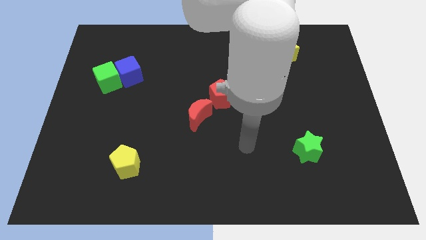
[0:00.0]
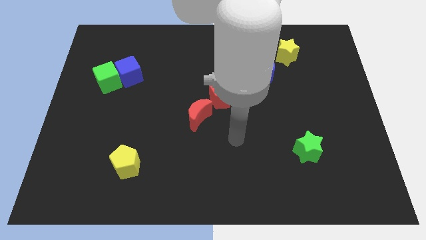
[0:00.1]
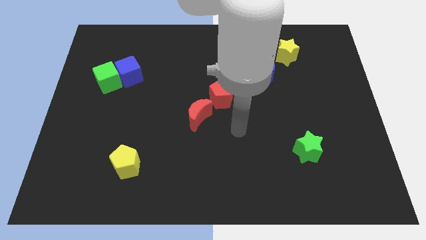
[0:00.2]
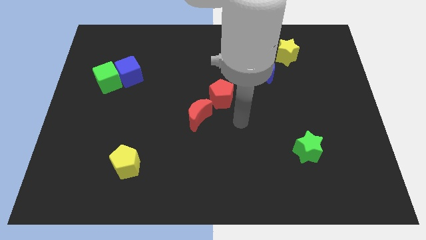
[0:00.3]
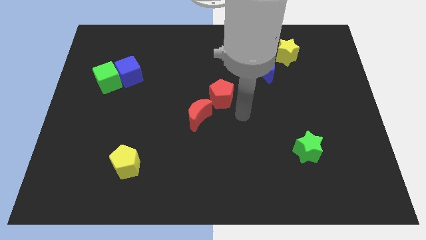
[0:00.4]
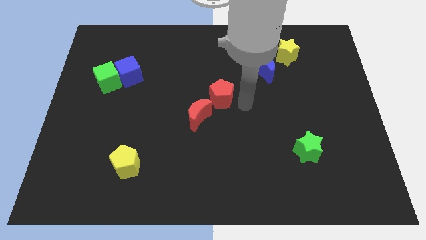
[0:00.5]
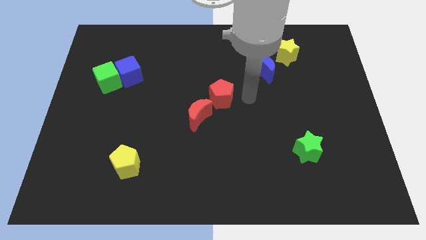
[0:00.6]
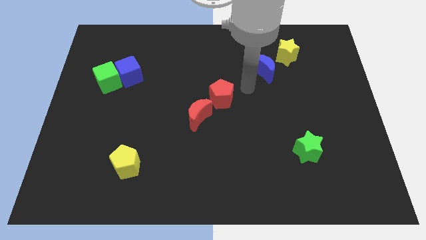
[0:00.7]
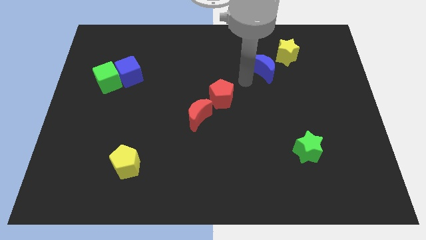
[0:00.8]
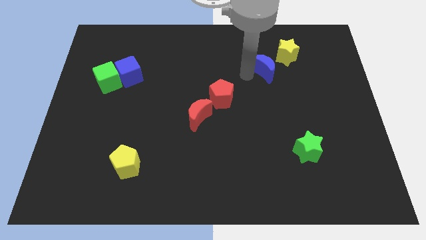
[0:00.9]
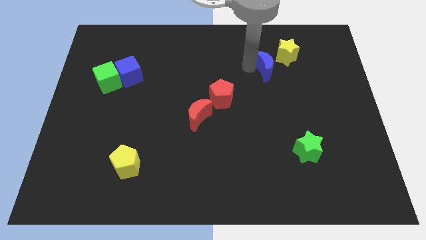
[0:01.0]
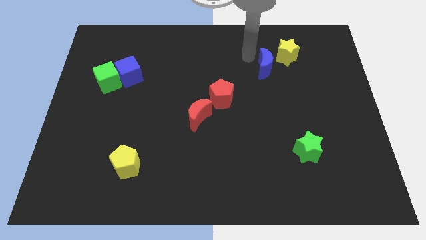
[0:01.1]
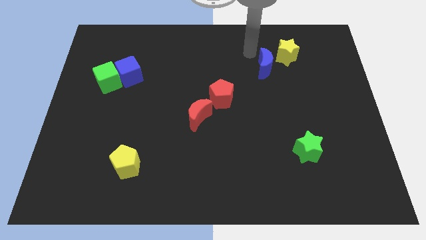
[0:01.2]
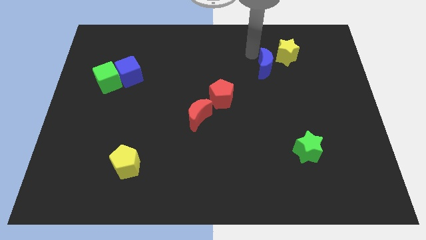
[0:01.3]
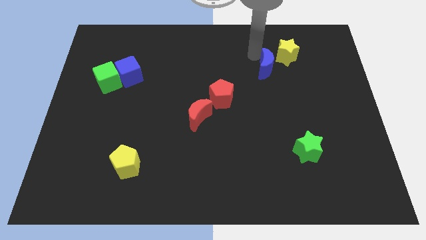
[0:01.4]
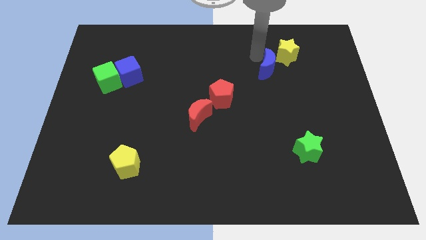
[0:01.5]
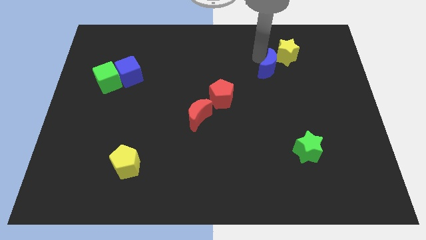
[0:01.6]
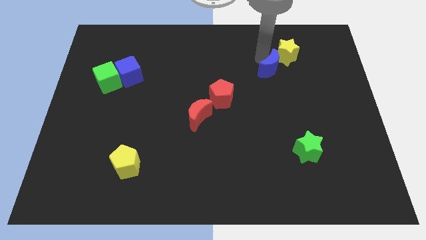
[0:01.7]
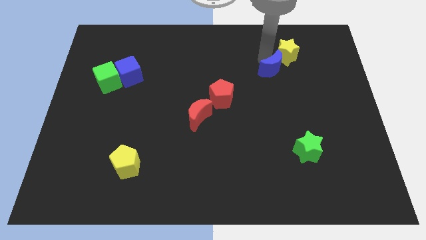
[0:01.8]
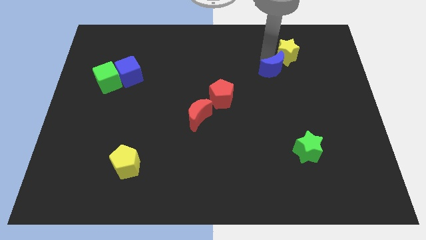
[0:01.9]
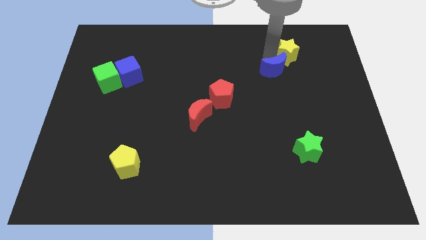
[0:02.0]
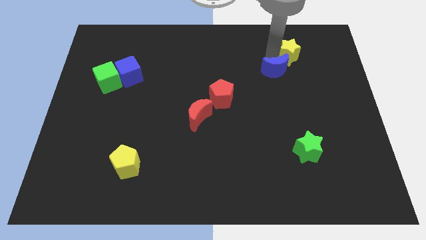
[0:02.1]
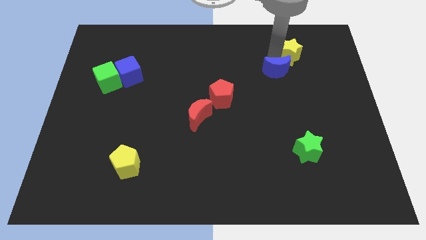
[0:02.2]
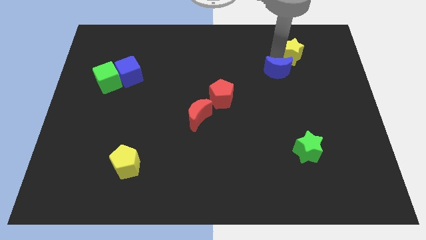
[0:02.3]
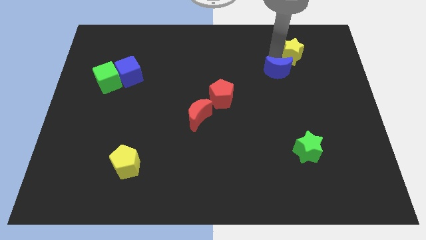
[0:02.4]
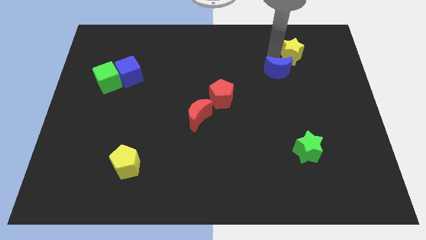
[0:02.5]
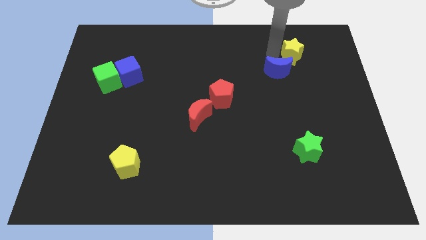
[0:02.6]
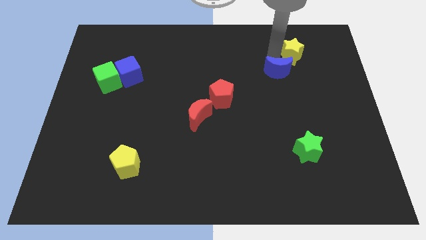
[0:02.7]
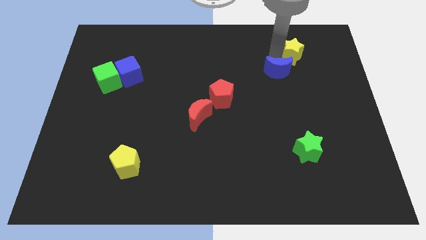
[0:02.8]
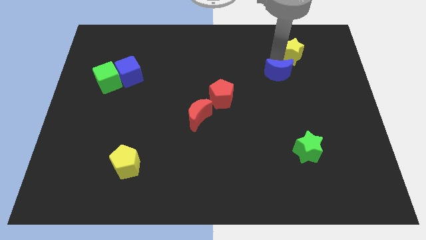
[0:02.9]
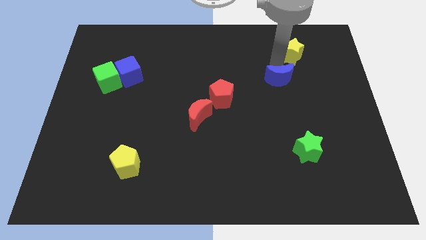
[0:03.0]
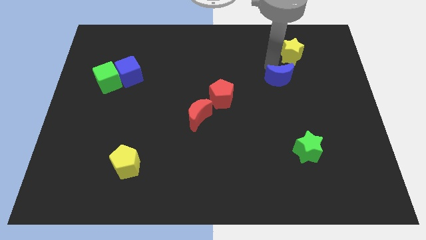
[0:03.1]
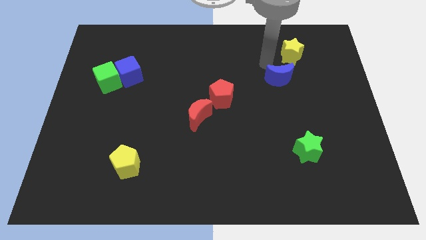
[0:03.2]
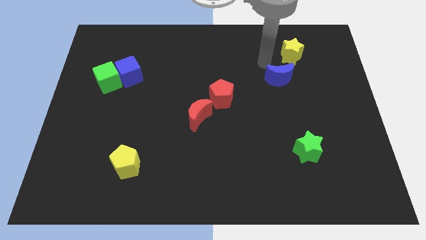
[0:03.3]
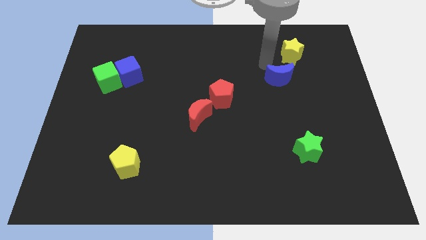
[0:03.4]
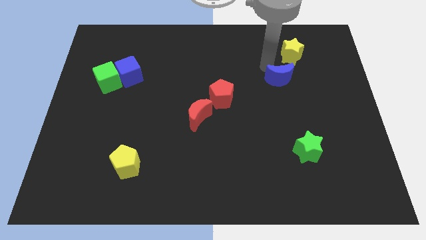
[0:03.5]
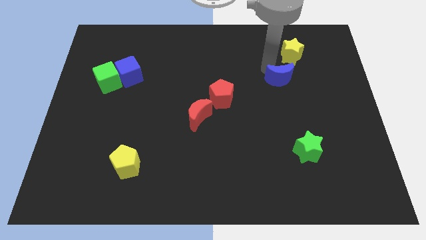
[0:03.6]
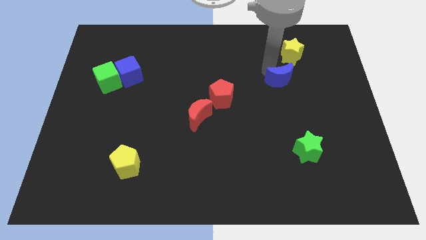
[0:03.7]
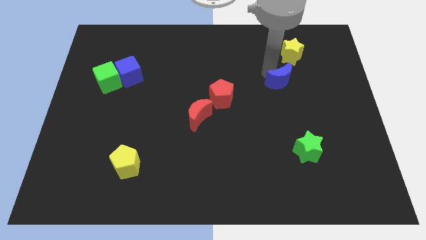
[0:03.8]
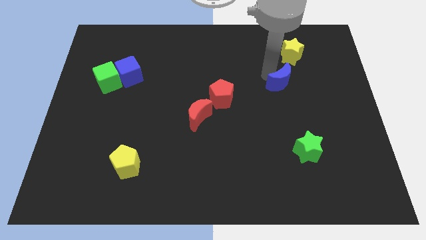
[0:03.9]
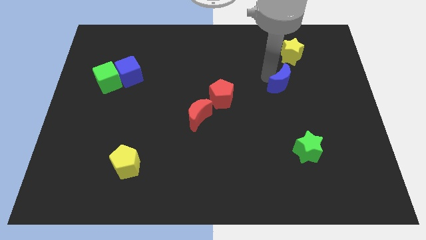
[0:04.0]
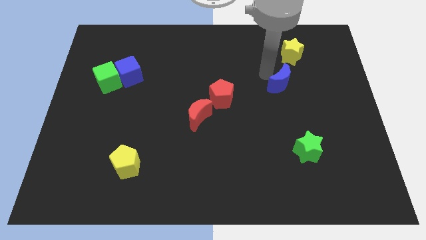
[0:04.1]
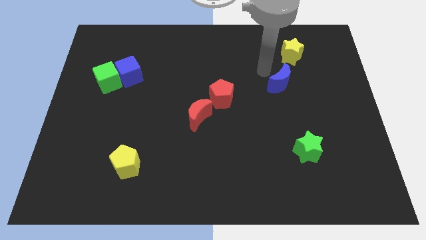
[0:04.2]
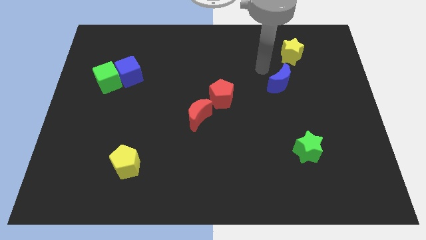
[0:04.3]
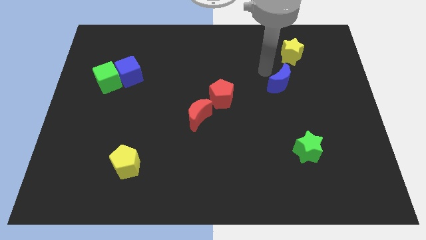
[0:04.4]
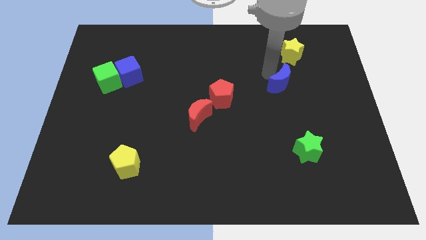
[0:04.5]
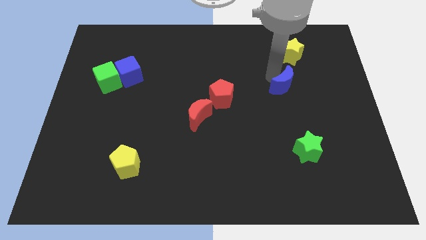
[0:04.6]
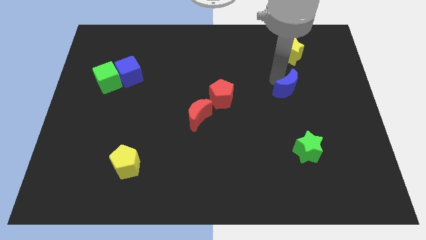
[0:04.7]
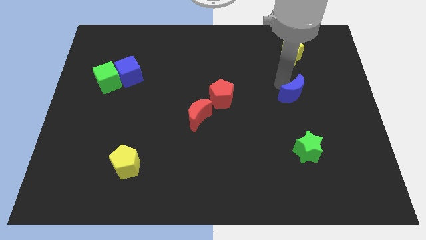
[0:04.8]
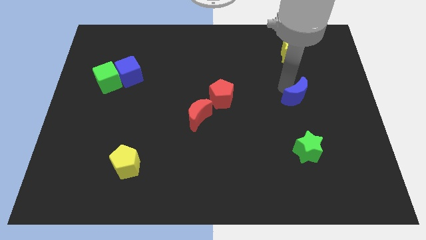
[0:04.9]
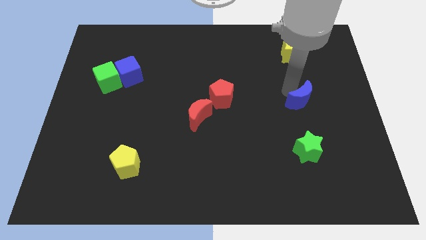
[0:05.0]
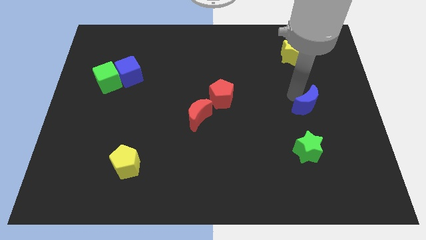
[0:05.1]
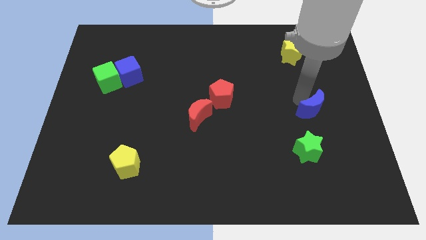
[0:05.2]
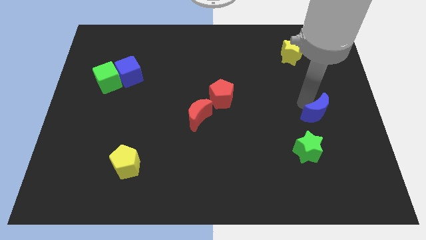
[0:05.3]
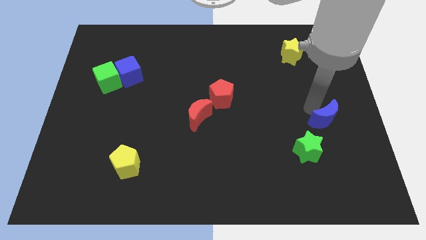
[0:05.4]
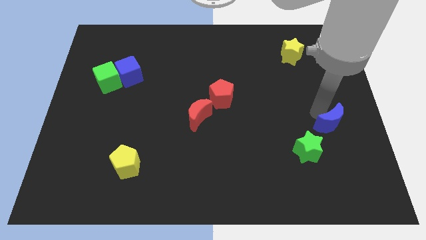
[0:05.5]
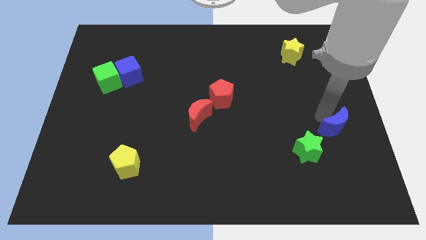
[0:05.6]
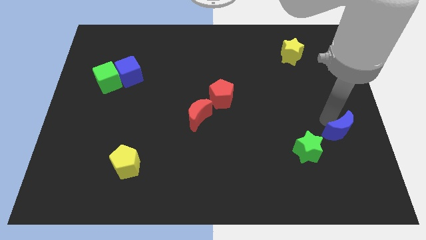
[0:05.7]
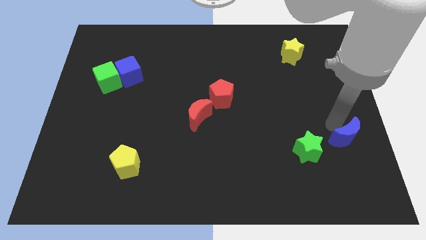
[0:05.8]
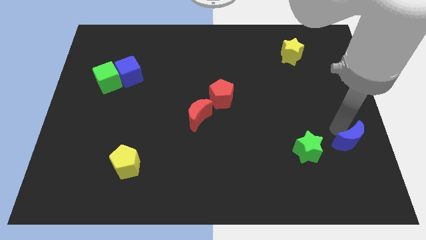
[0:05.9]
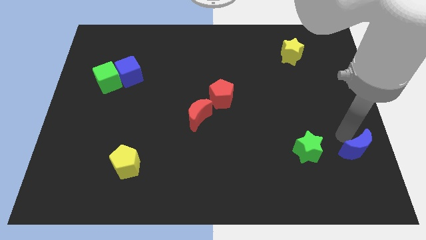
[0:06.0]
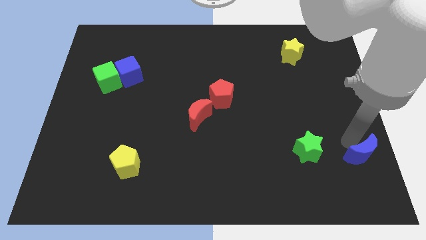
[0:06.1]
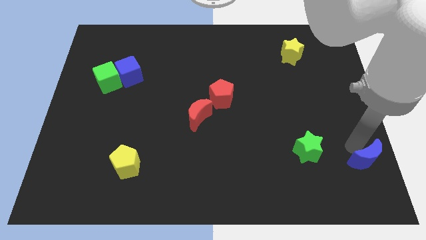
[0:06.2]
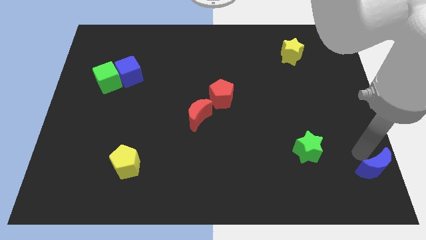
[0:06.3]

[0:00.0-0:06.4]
slide the blue moon to the bottom right of the board

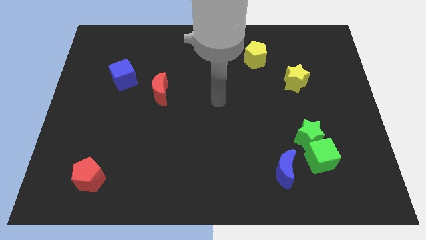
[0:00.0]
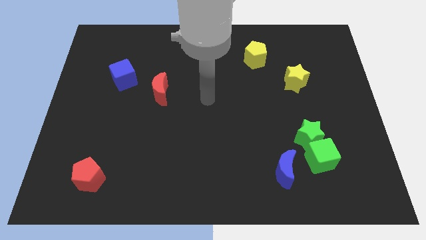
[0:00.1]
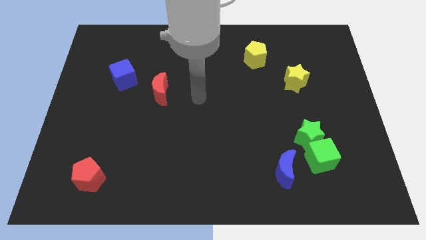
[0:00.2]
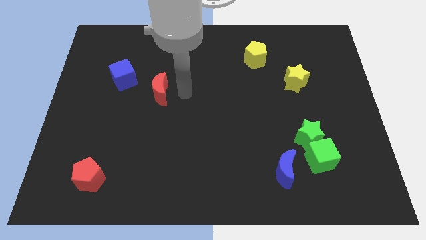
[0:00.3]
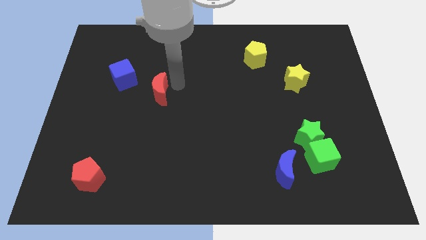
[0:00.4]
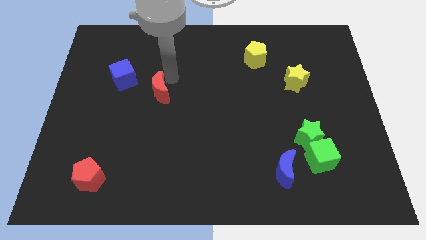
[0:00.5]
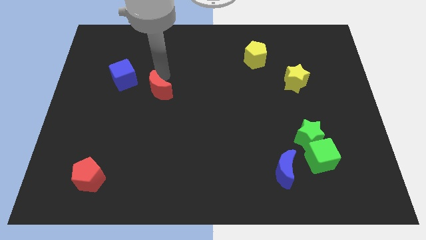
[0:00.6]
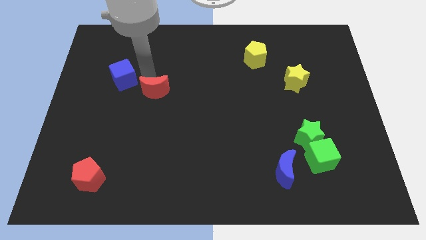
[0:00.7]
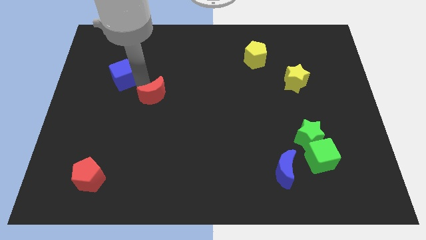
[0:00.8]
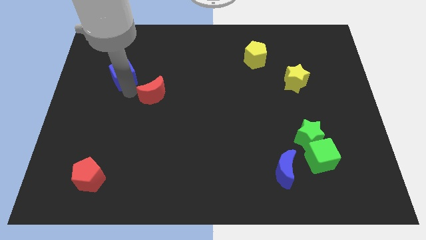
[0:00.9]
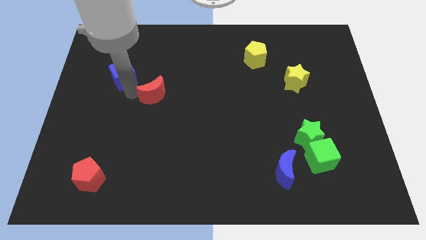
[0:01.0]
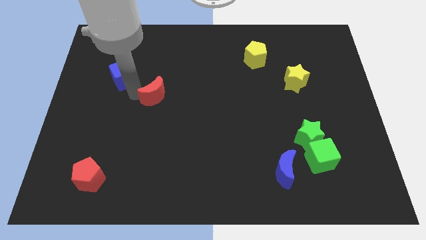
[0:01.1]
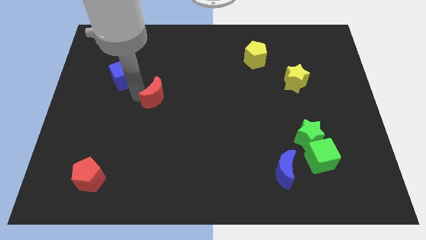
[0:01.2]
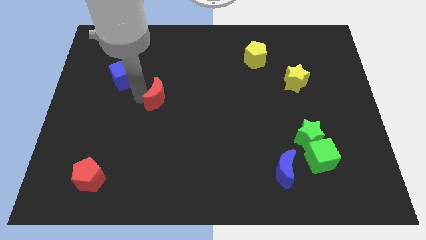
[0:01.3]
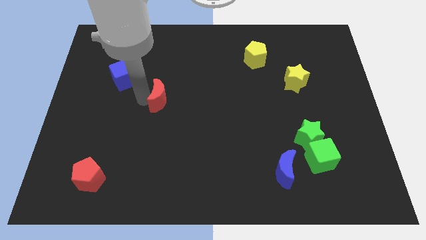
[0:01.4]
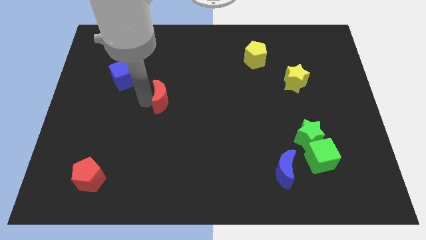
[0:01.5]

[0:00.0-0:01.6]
push the red moon to the center of the board
